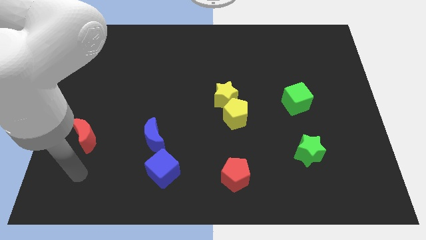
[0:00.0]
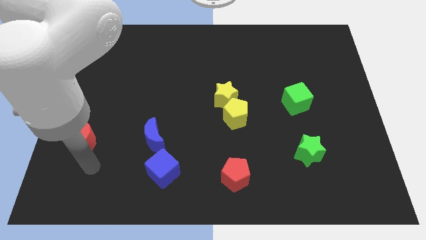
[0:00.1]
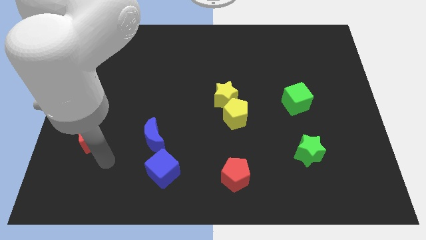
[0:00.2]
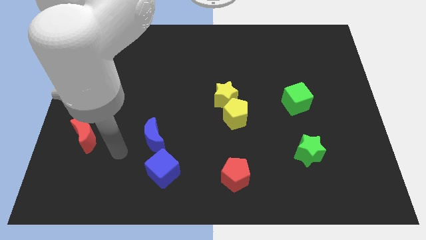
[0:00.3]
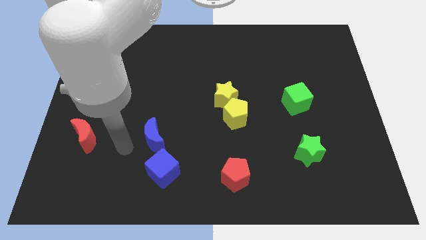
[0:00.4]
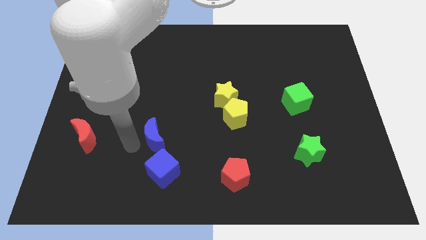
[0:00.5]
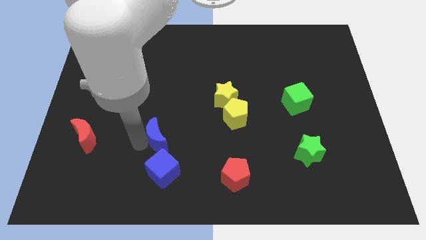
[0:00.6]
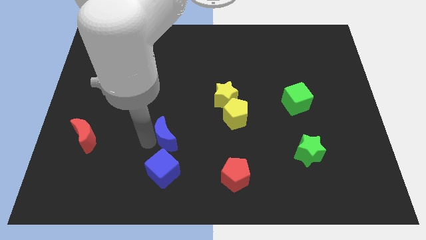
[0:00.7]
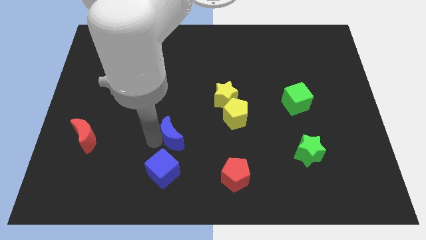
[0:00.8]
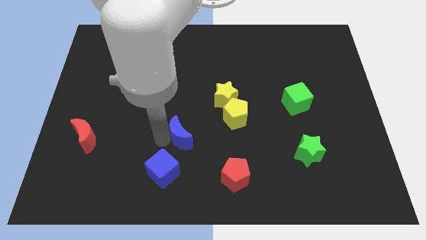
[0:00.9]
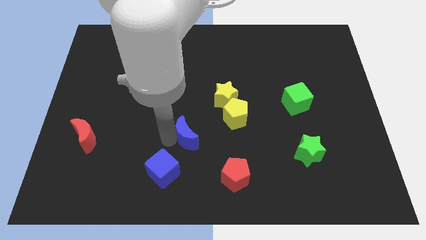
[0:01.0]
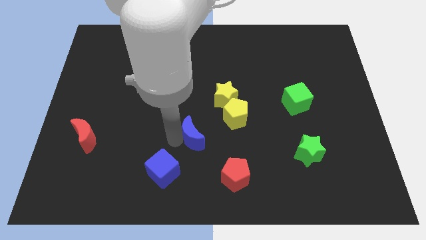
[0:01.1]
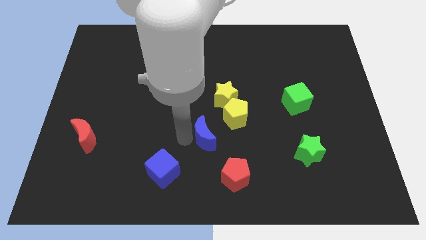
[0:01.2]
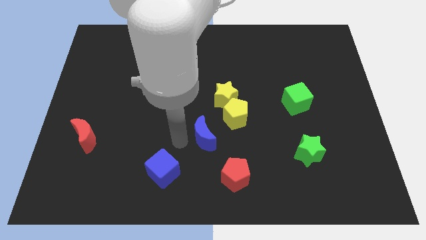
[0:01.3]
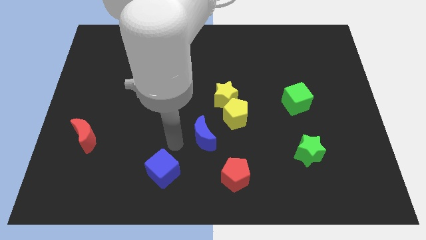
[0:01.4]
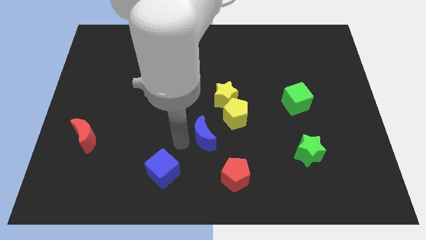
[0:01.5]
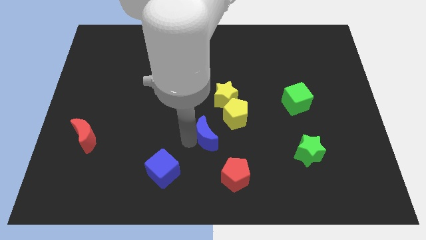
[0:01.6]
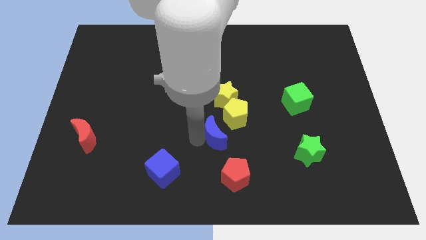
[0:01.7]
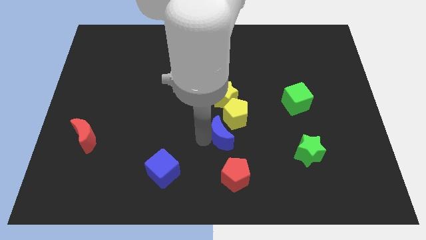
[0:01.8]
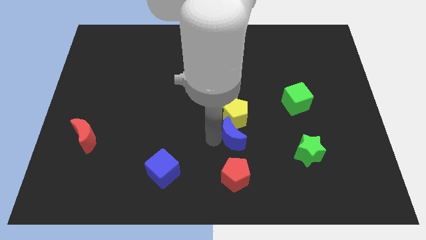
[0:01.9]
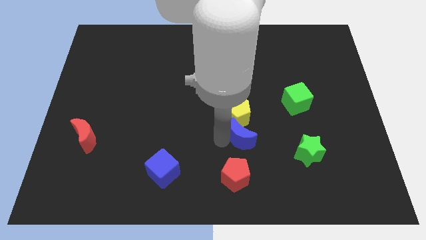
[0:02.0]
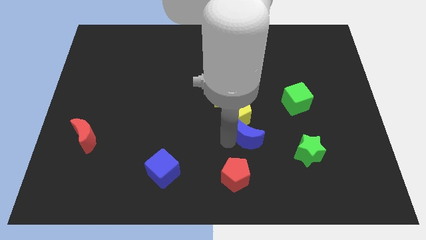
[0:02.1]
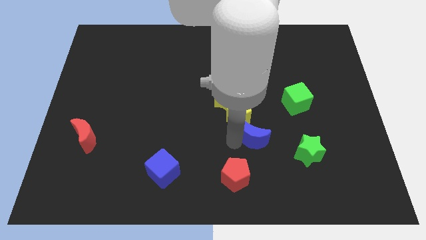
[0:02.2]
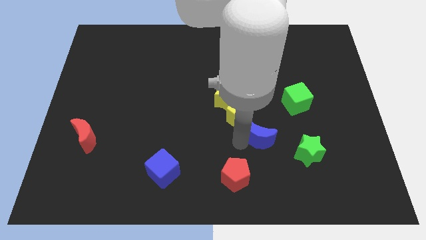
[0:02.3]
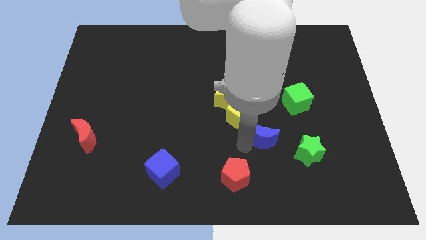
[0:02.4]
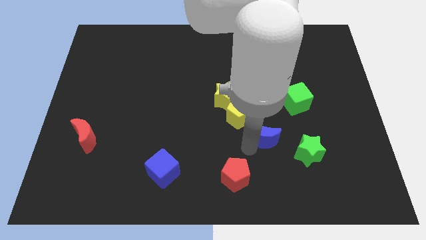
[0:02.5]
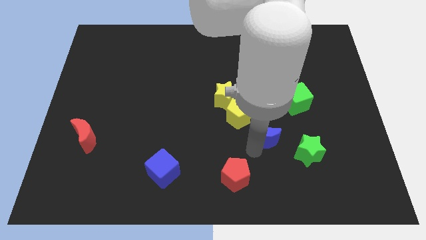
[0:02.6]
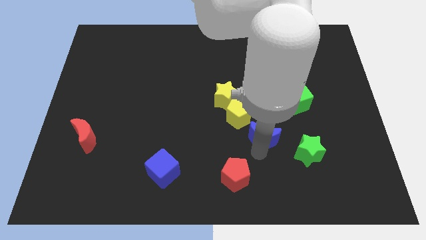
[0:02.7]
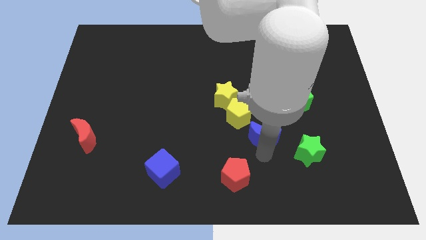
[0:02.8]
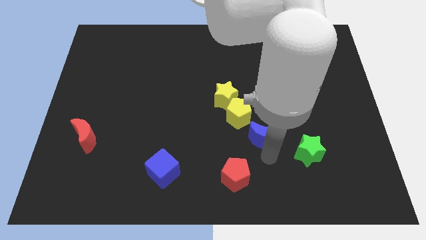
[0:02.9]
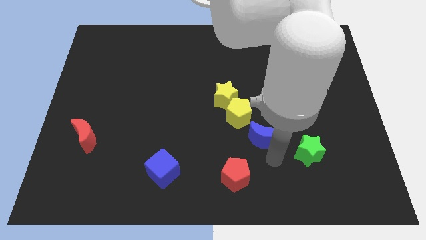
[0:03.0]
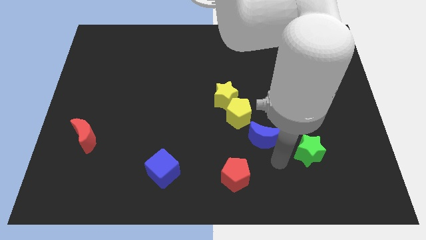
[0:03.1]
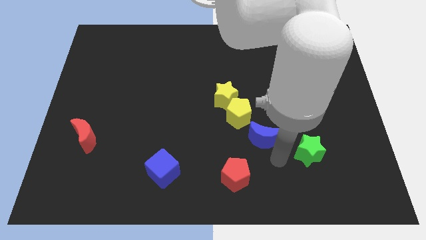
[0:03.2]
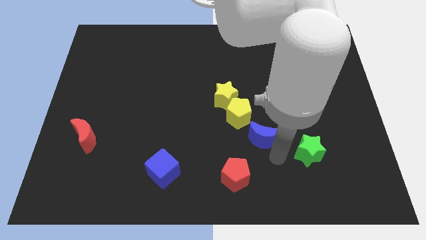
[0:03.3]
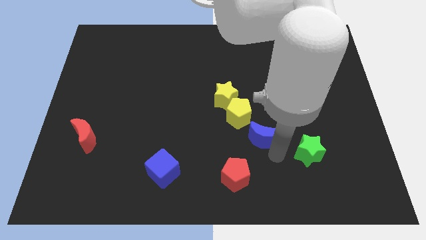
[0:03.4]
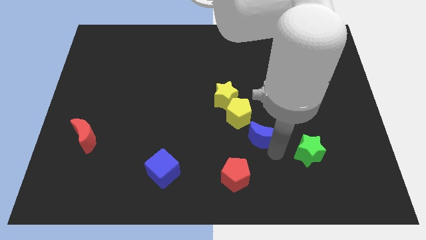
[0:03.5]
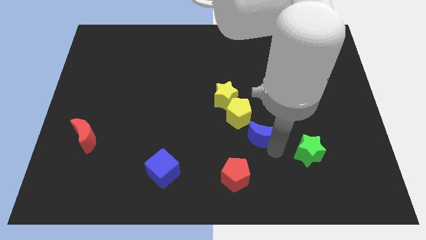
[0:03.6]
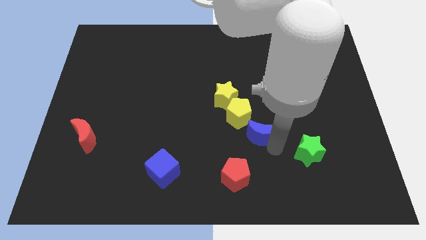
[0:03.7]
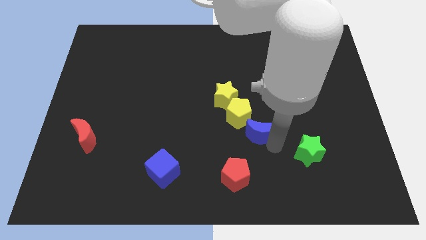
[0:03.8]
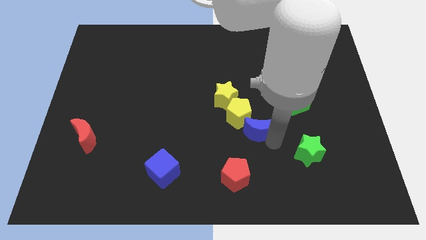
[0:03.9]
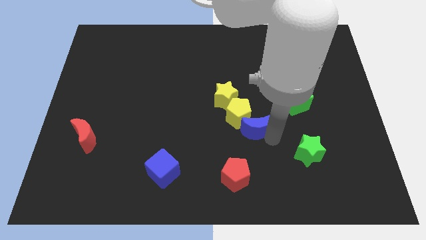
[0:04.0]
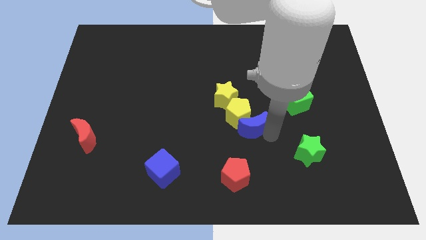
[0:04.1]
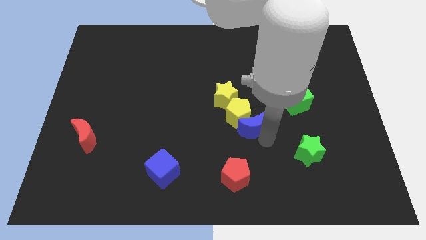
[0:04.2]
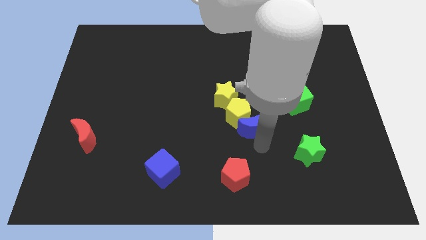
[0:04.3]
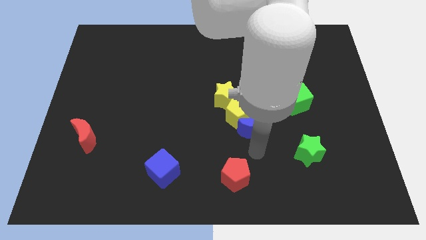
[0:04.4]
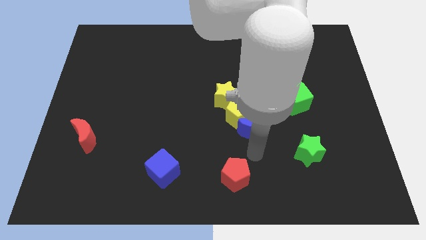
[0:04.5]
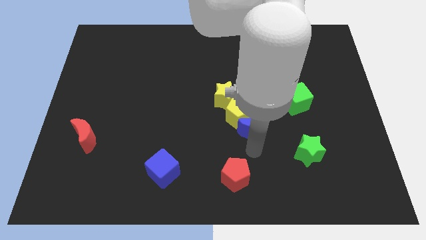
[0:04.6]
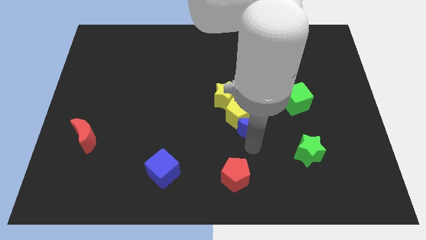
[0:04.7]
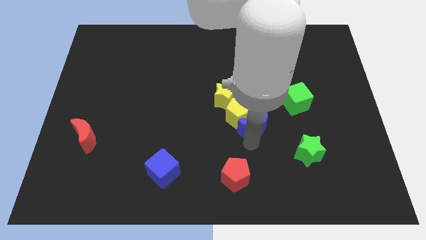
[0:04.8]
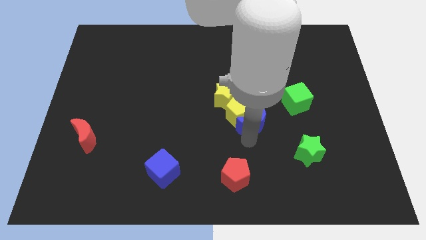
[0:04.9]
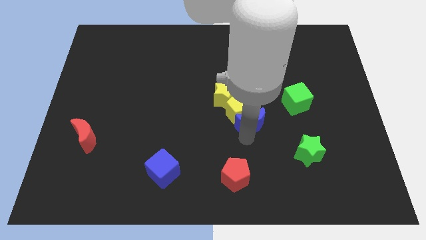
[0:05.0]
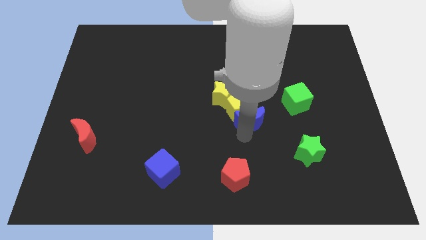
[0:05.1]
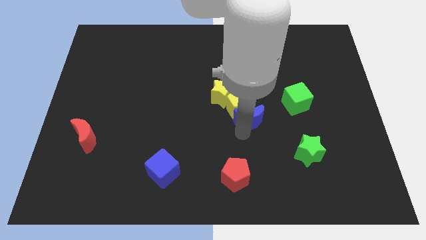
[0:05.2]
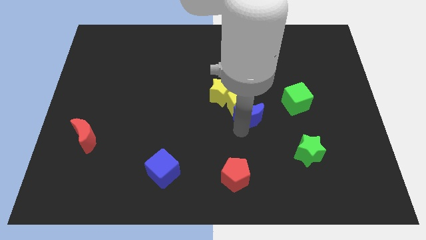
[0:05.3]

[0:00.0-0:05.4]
put the blue moon to the left of the green cube

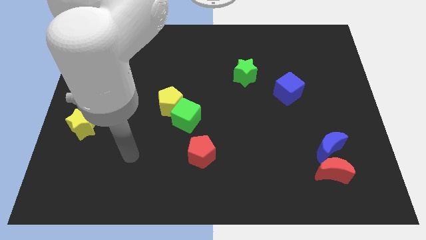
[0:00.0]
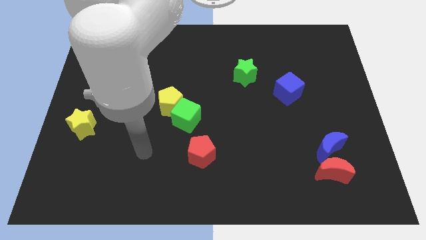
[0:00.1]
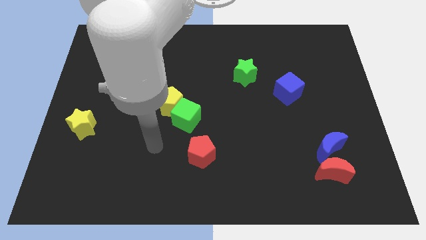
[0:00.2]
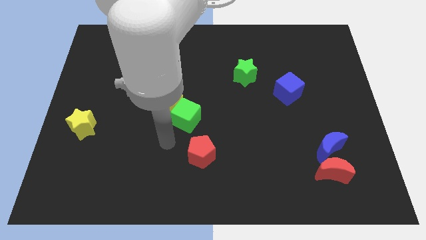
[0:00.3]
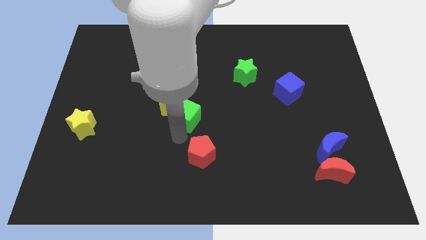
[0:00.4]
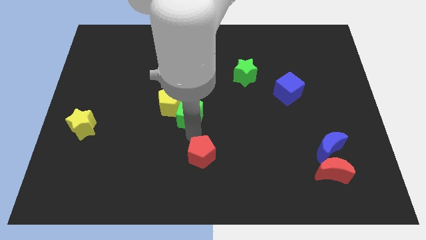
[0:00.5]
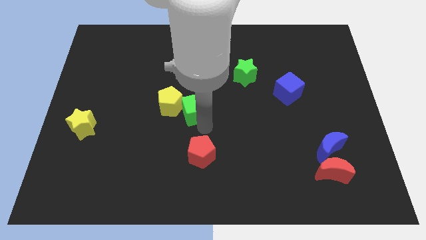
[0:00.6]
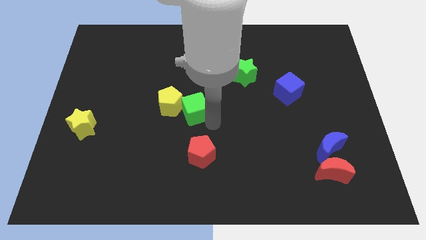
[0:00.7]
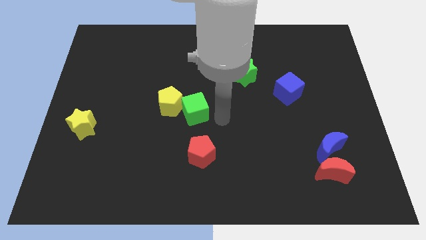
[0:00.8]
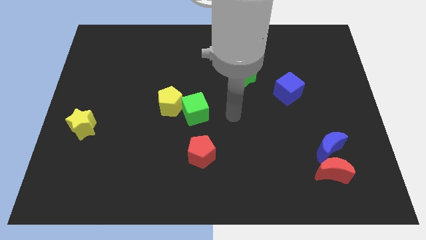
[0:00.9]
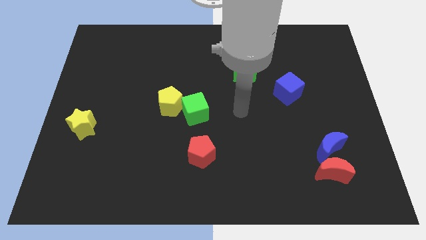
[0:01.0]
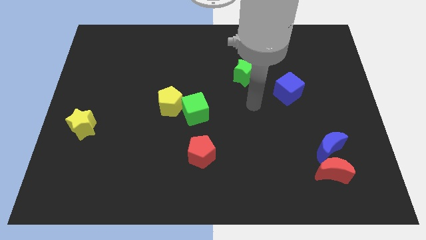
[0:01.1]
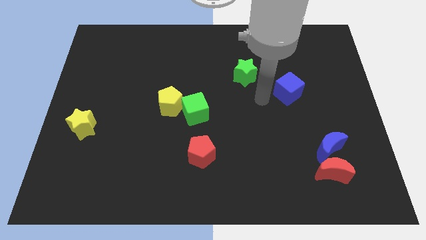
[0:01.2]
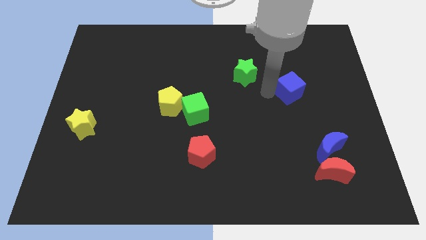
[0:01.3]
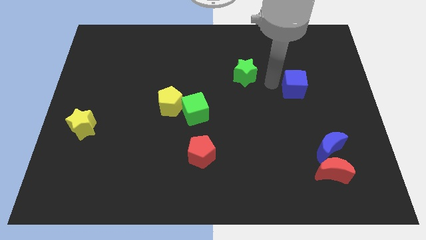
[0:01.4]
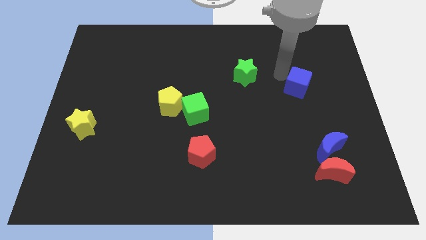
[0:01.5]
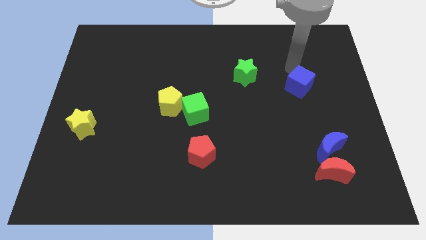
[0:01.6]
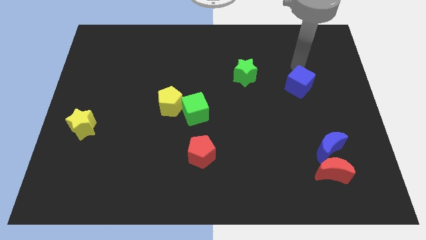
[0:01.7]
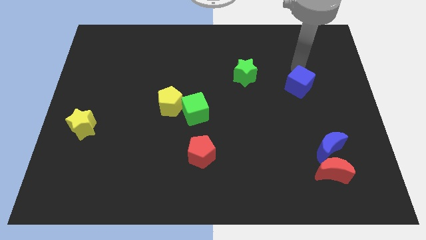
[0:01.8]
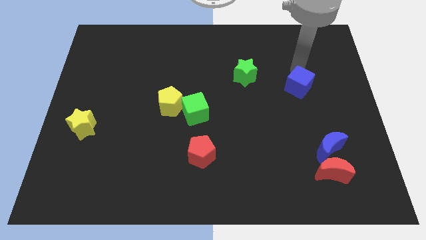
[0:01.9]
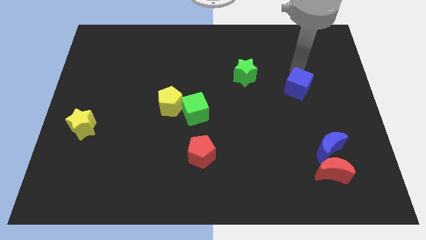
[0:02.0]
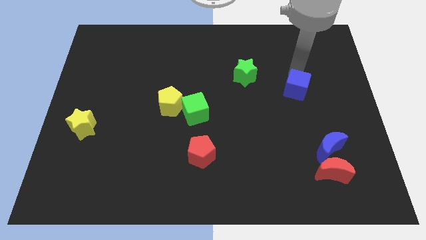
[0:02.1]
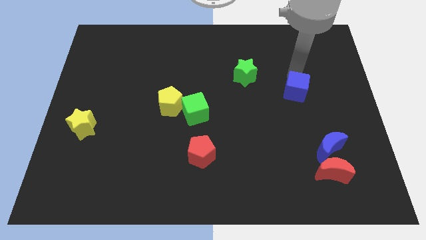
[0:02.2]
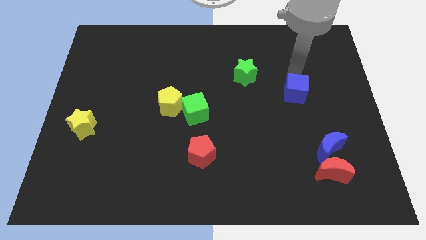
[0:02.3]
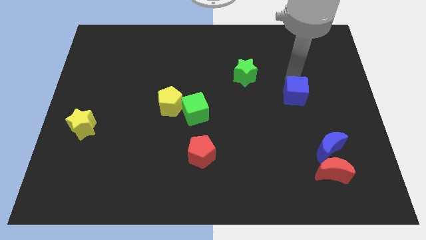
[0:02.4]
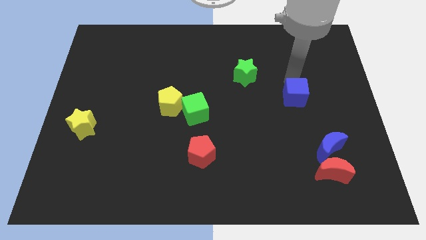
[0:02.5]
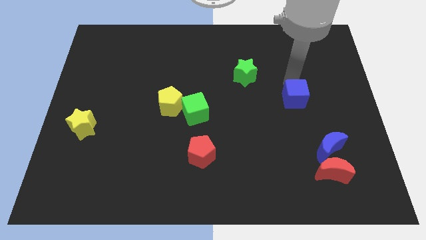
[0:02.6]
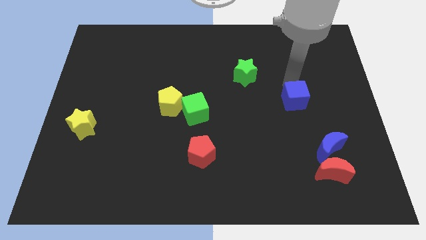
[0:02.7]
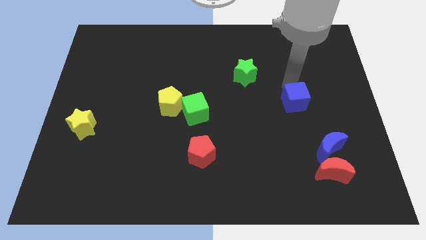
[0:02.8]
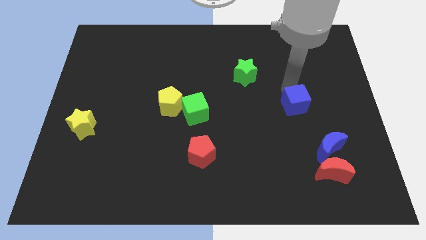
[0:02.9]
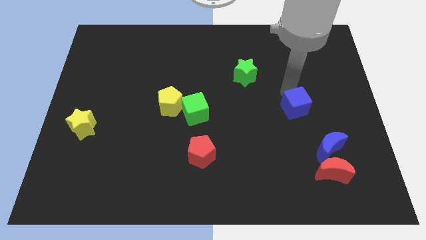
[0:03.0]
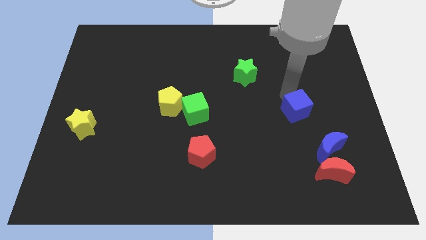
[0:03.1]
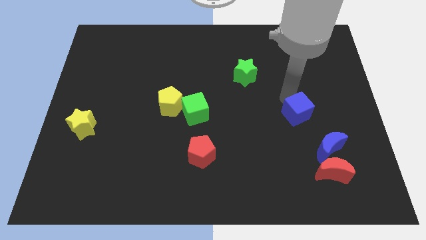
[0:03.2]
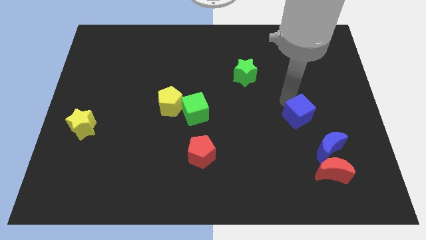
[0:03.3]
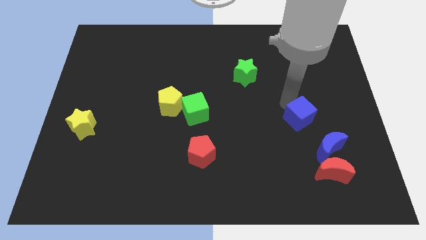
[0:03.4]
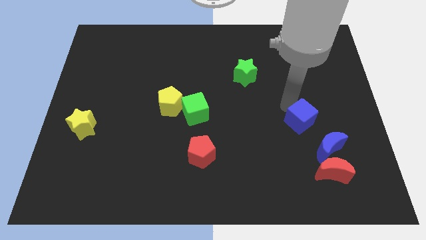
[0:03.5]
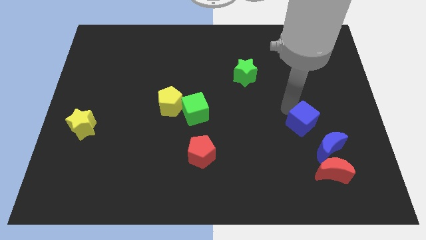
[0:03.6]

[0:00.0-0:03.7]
put the blue cube to the top of the red moon
